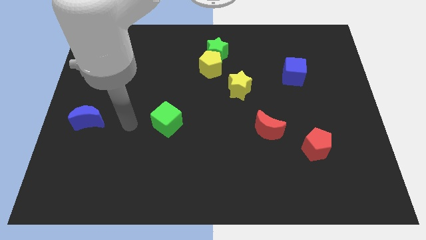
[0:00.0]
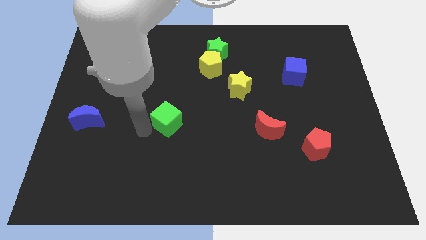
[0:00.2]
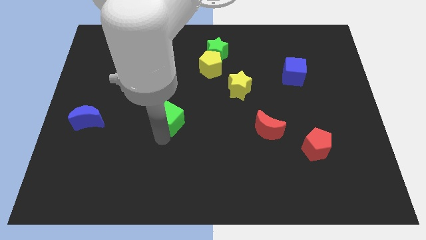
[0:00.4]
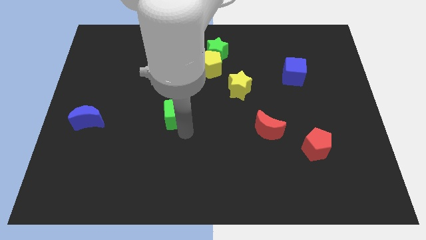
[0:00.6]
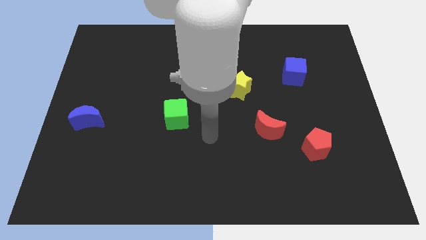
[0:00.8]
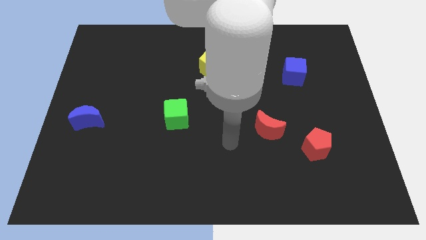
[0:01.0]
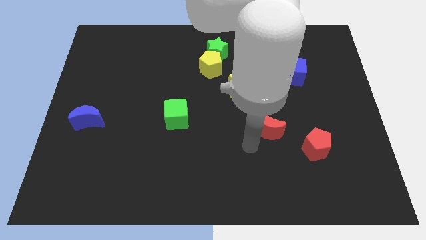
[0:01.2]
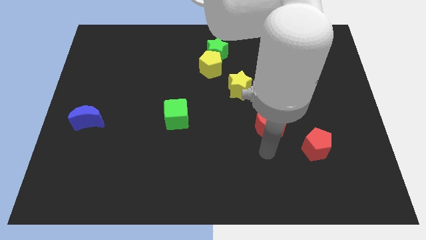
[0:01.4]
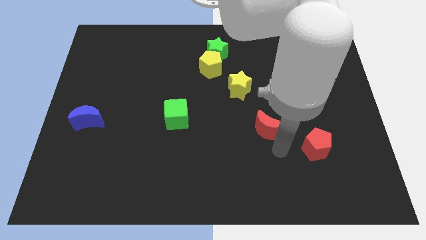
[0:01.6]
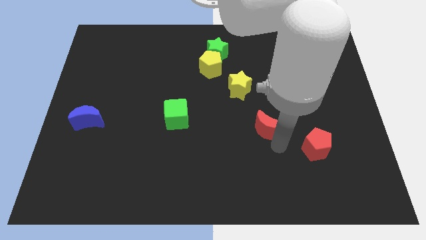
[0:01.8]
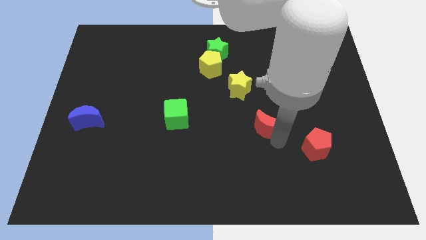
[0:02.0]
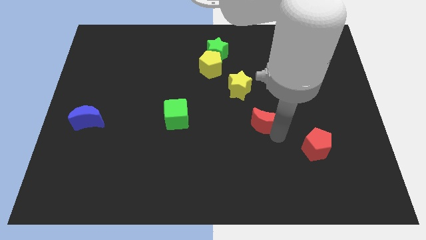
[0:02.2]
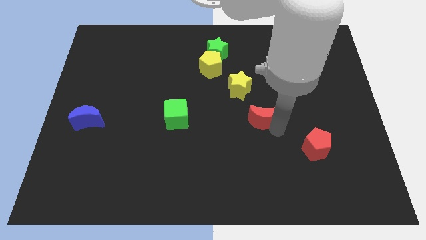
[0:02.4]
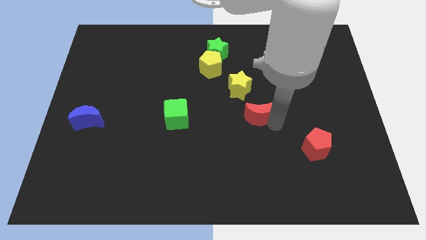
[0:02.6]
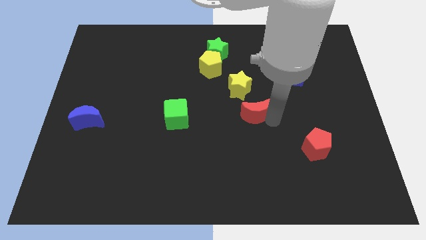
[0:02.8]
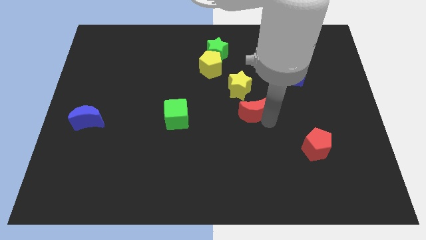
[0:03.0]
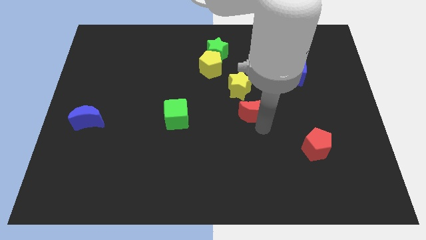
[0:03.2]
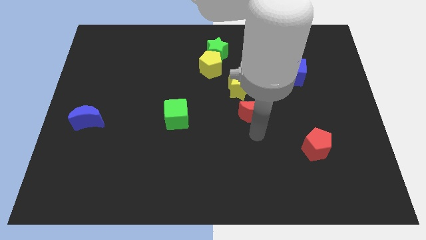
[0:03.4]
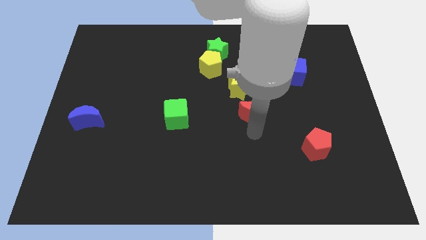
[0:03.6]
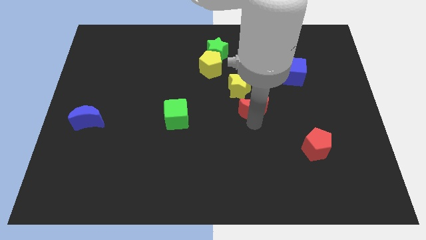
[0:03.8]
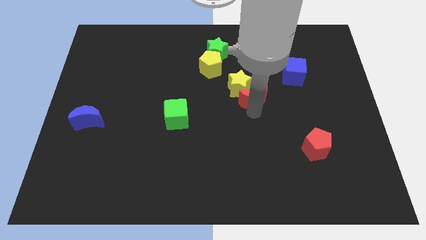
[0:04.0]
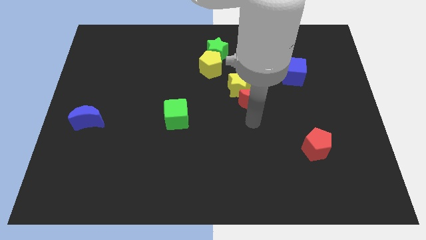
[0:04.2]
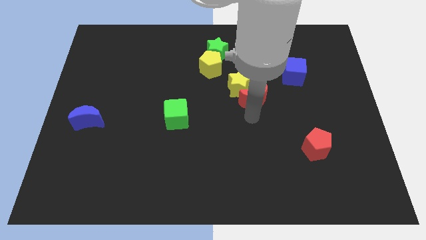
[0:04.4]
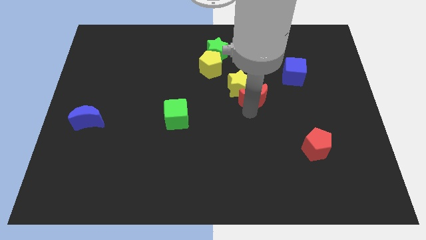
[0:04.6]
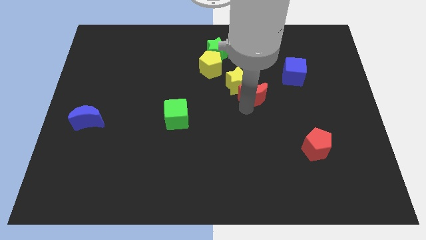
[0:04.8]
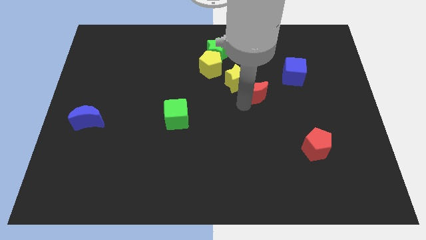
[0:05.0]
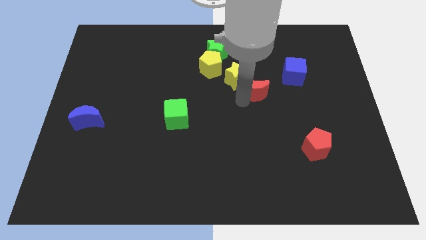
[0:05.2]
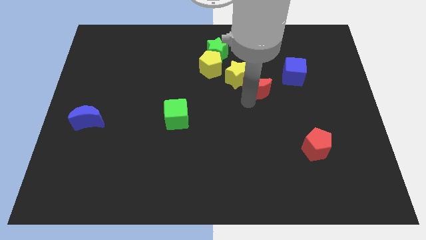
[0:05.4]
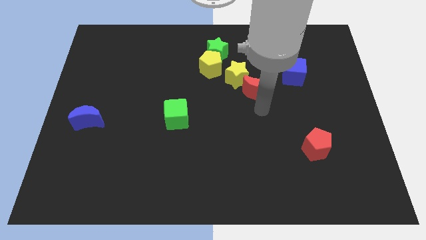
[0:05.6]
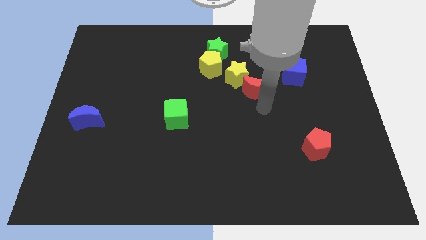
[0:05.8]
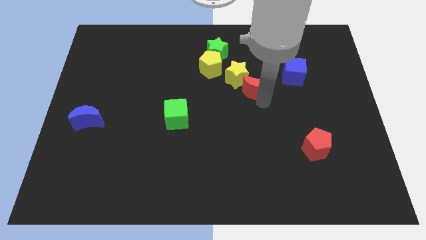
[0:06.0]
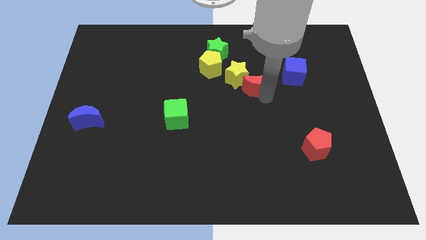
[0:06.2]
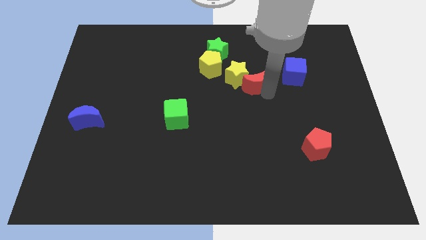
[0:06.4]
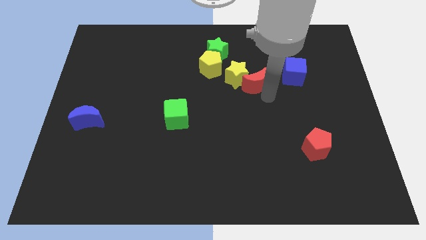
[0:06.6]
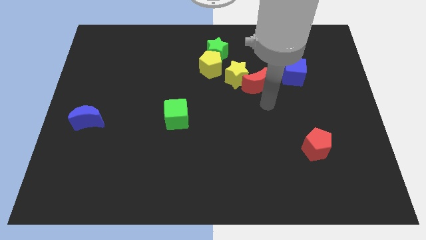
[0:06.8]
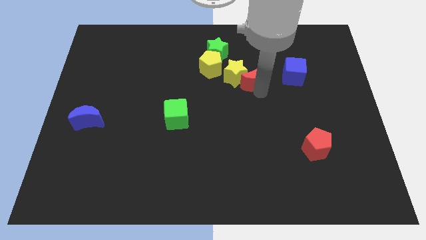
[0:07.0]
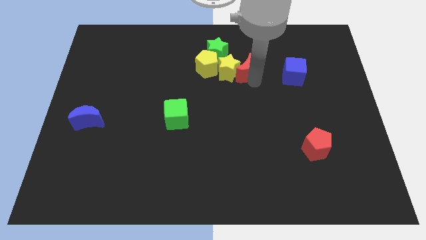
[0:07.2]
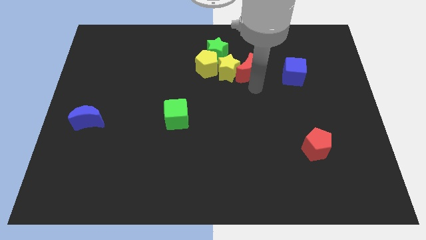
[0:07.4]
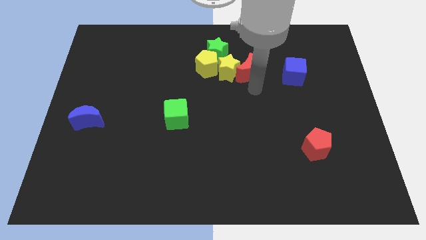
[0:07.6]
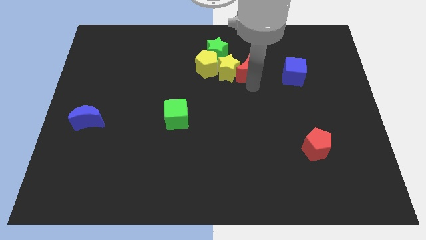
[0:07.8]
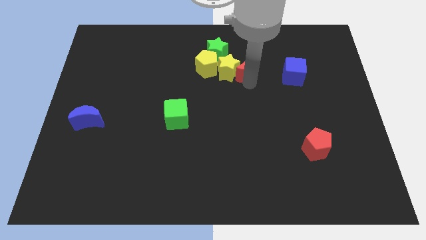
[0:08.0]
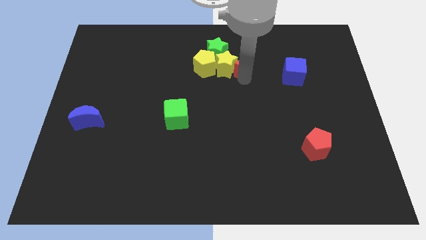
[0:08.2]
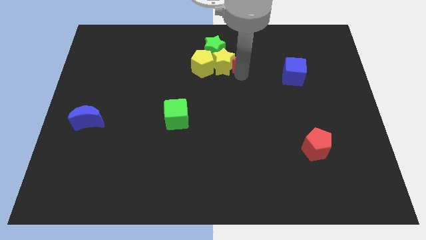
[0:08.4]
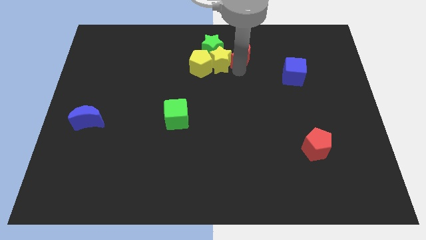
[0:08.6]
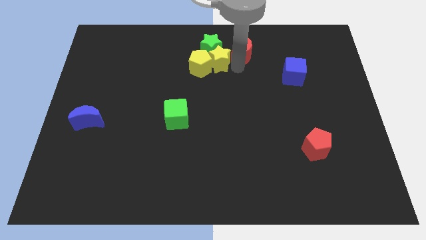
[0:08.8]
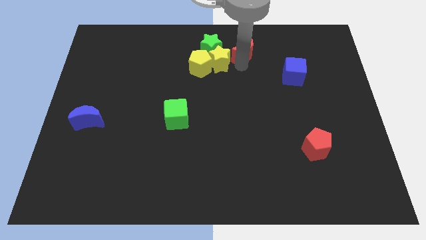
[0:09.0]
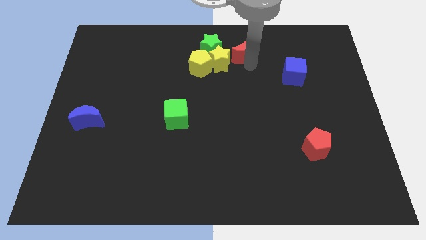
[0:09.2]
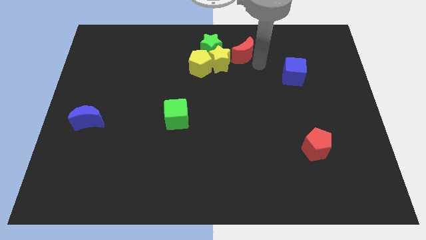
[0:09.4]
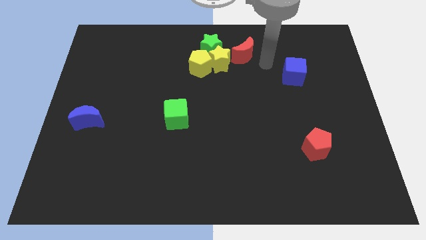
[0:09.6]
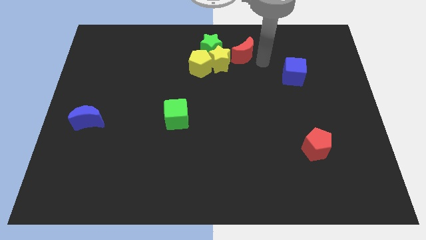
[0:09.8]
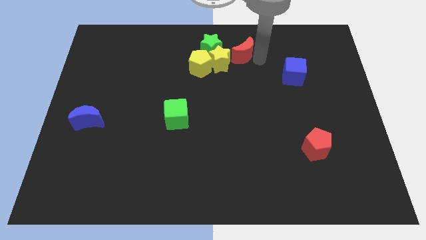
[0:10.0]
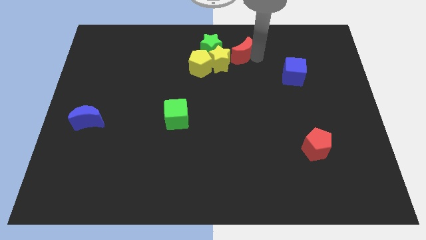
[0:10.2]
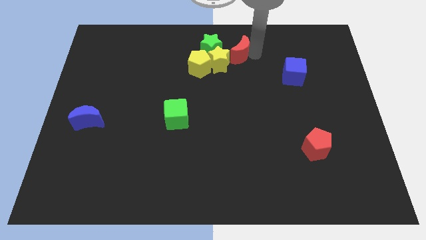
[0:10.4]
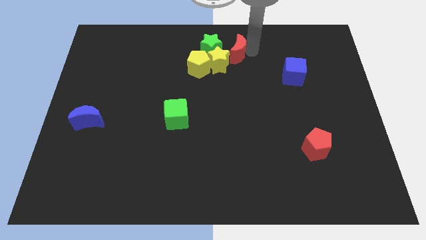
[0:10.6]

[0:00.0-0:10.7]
push the red moon to the top side
